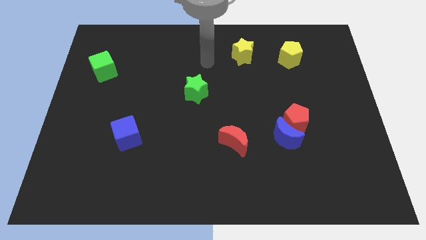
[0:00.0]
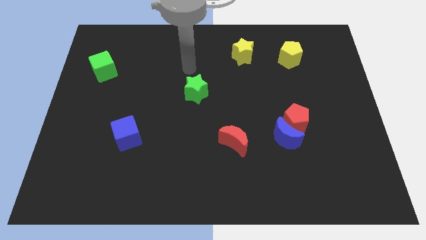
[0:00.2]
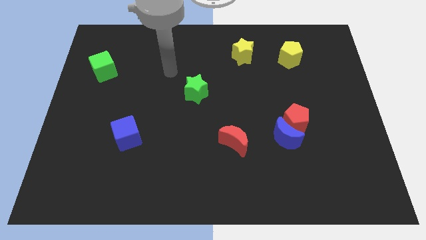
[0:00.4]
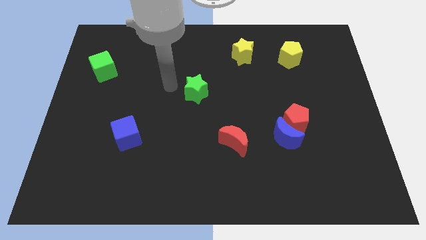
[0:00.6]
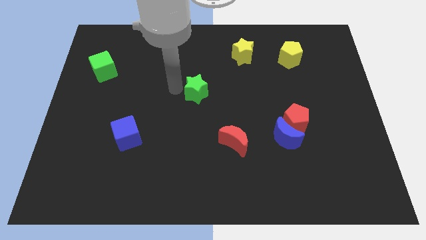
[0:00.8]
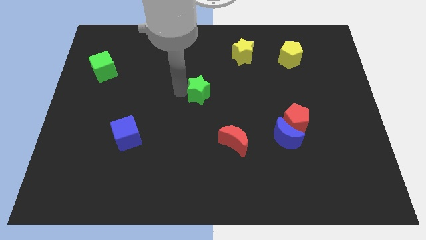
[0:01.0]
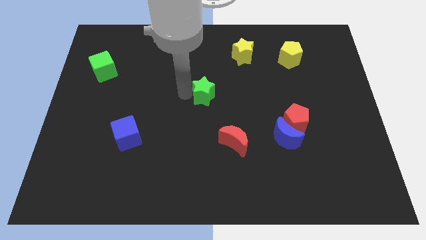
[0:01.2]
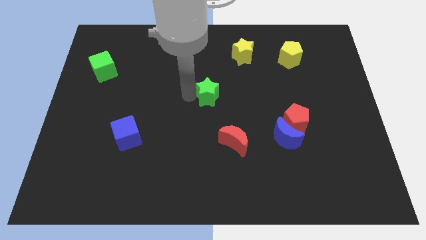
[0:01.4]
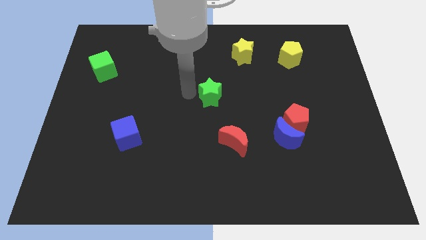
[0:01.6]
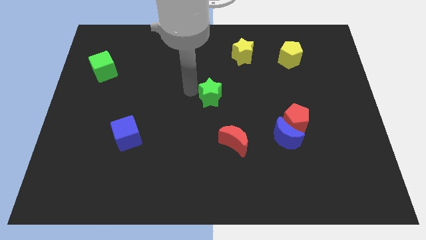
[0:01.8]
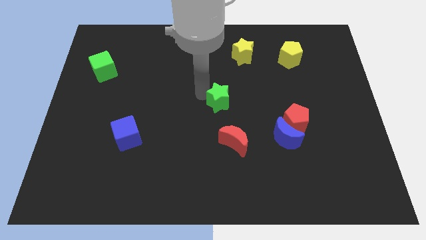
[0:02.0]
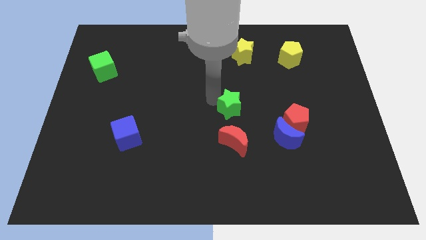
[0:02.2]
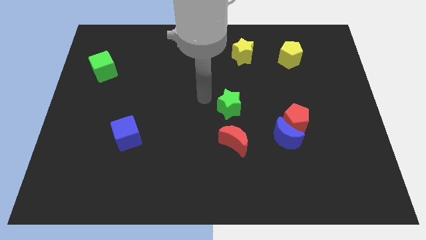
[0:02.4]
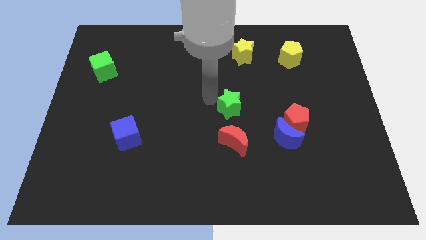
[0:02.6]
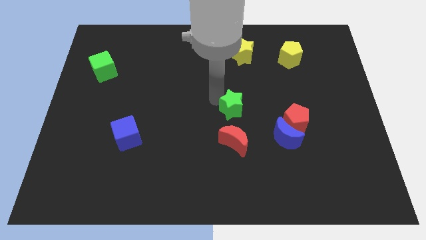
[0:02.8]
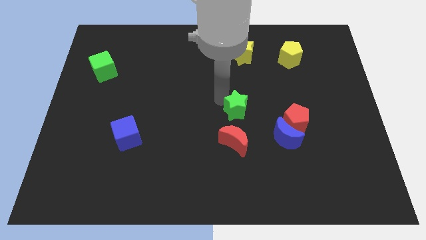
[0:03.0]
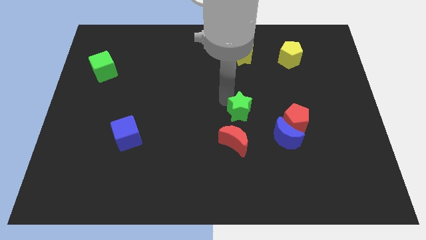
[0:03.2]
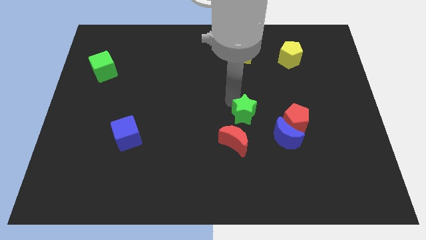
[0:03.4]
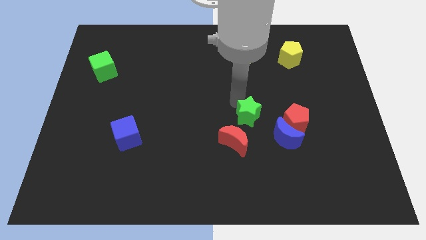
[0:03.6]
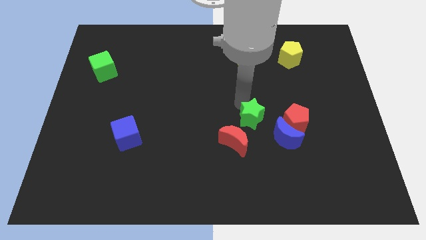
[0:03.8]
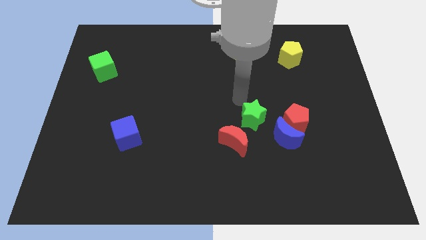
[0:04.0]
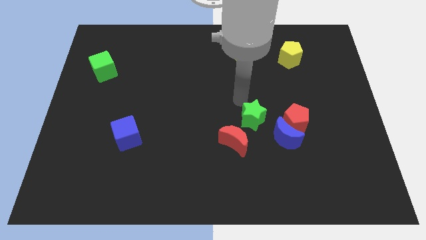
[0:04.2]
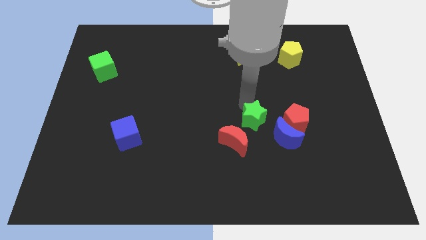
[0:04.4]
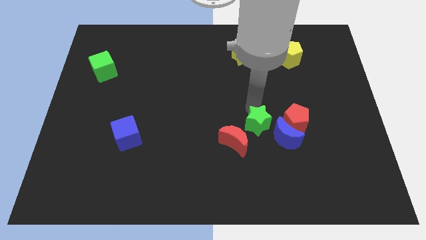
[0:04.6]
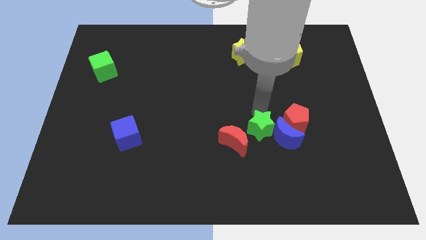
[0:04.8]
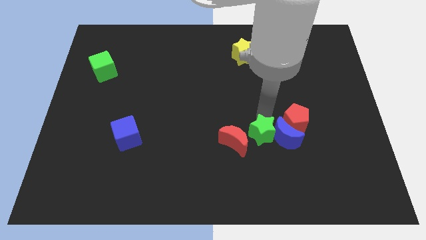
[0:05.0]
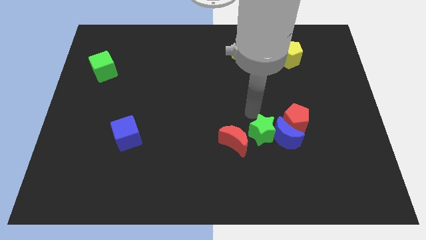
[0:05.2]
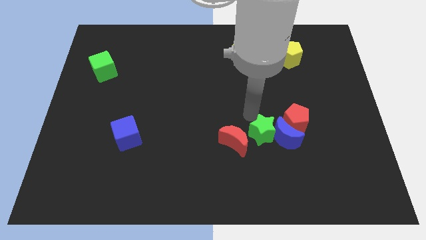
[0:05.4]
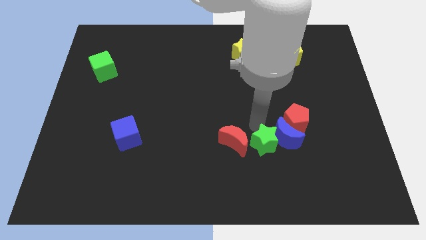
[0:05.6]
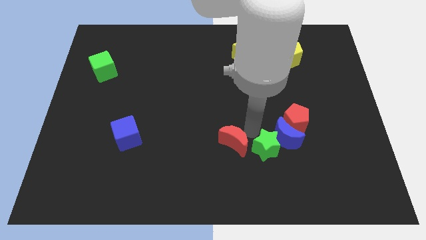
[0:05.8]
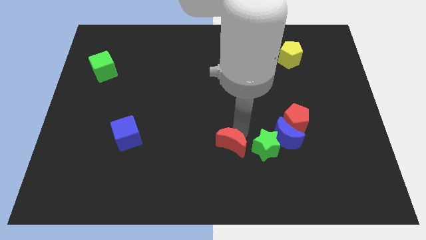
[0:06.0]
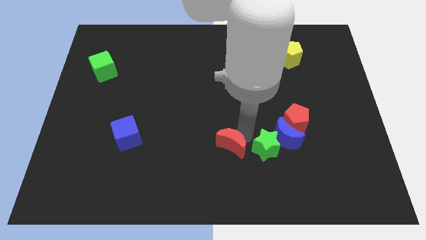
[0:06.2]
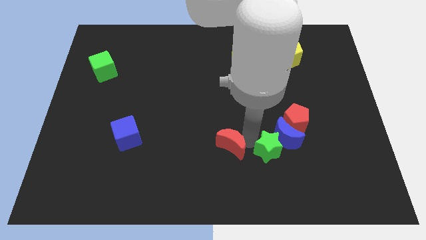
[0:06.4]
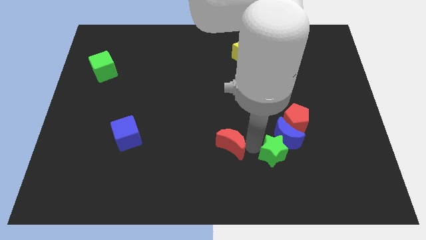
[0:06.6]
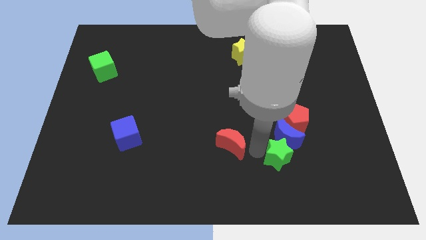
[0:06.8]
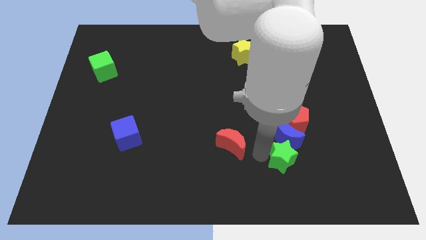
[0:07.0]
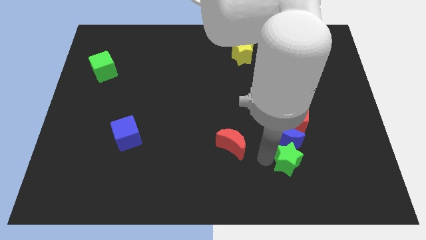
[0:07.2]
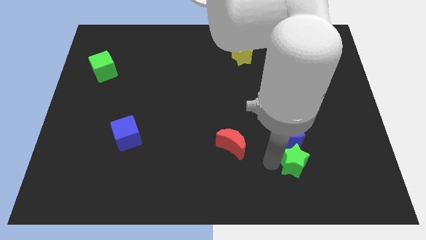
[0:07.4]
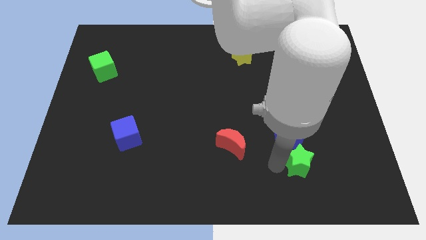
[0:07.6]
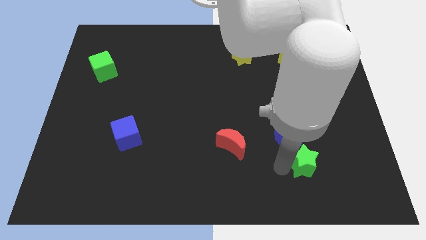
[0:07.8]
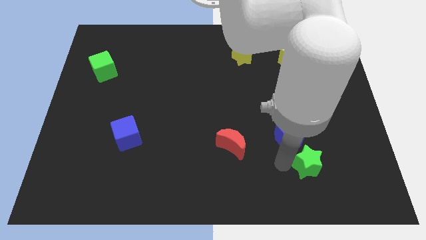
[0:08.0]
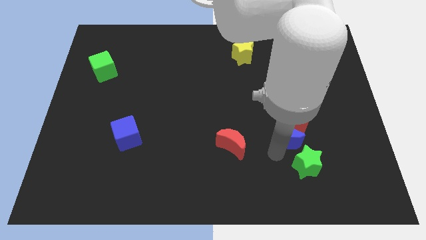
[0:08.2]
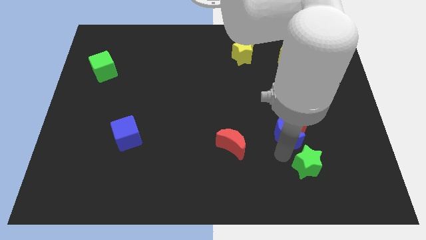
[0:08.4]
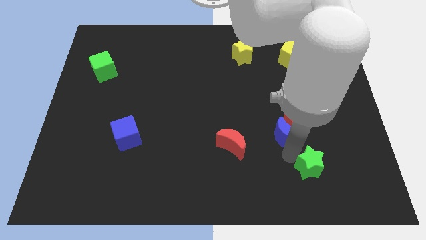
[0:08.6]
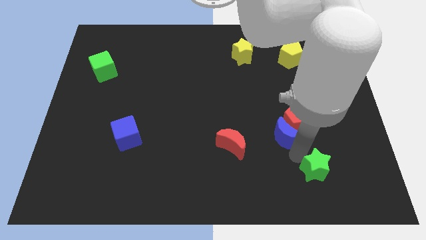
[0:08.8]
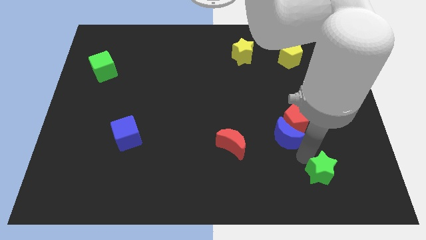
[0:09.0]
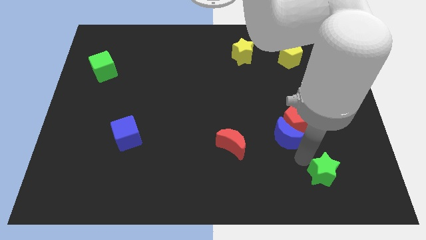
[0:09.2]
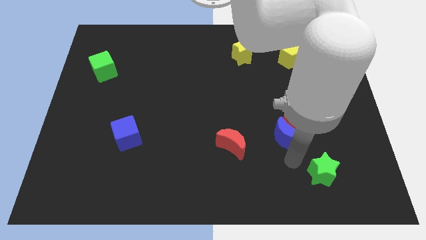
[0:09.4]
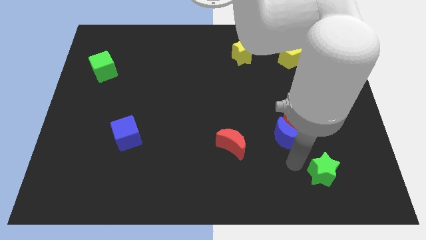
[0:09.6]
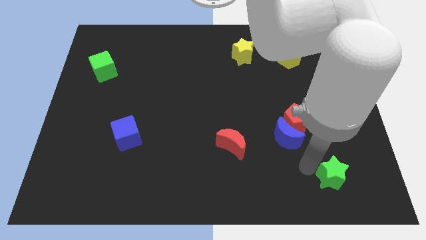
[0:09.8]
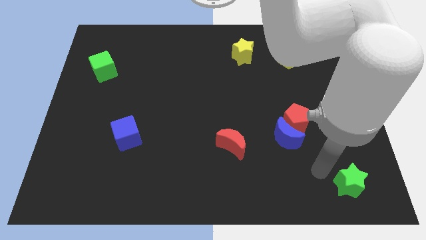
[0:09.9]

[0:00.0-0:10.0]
slide the green star to the bottom right of the board

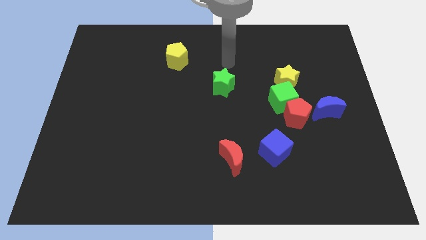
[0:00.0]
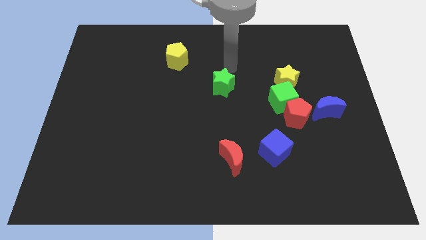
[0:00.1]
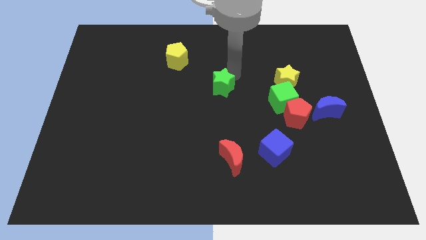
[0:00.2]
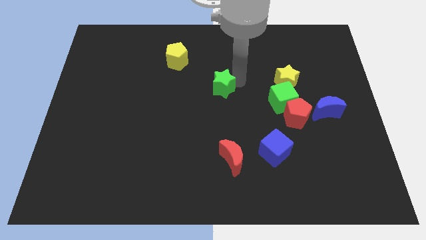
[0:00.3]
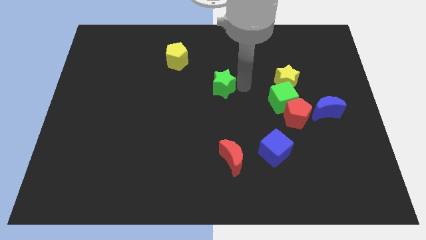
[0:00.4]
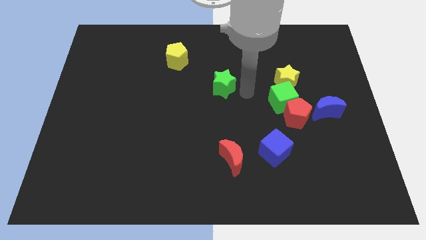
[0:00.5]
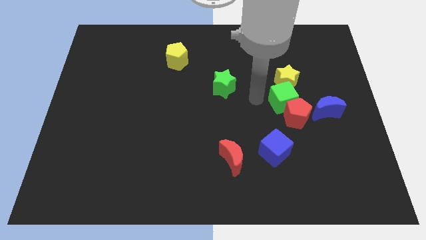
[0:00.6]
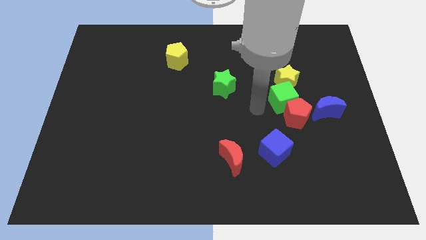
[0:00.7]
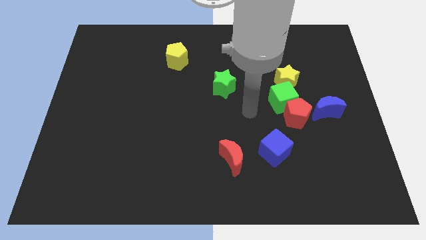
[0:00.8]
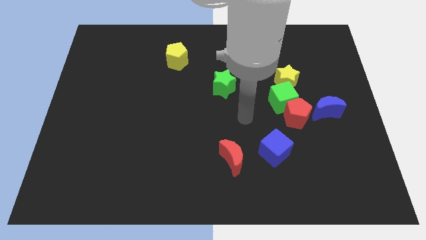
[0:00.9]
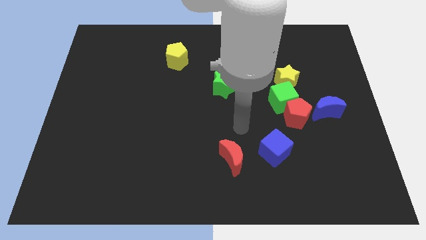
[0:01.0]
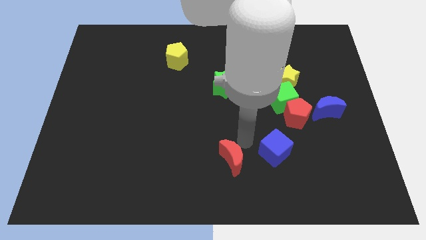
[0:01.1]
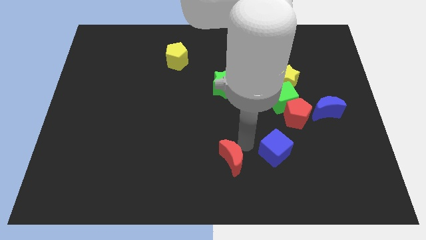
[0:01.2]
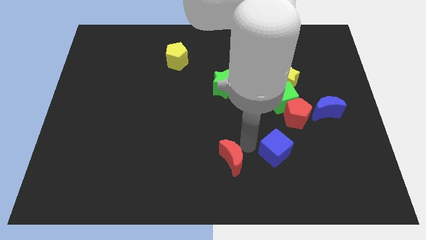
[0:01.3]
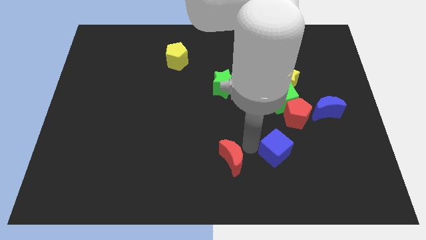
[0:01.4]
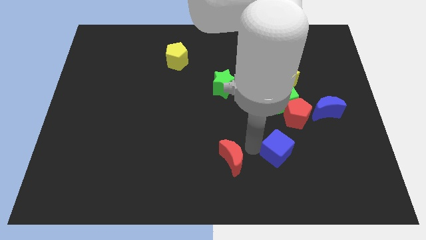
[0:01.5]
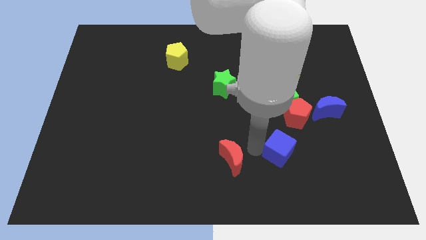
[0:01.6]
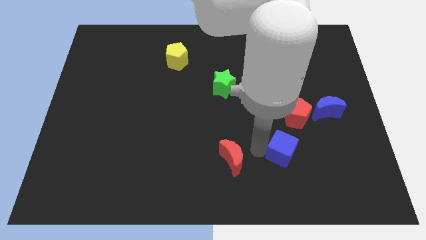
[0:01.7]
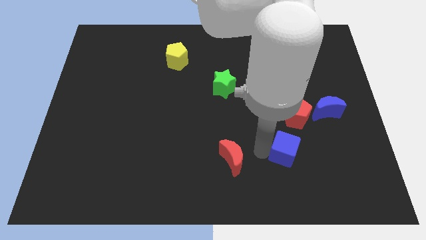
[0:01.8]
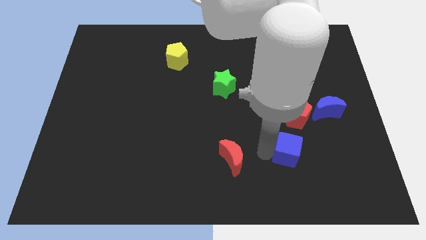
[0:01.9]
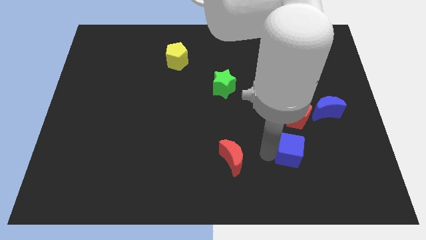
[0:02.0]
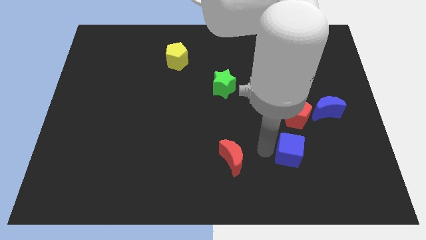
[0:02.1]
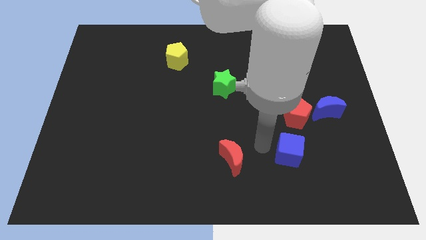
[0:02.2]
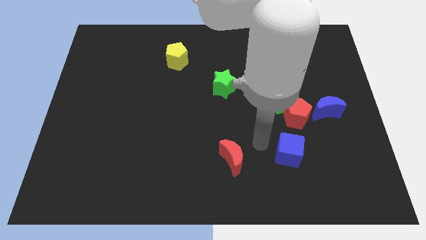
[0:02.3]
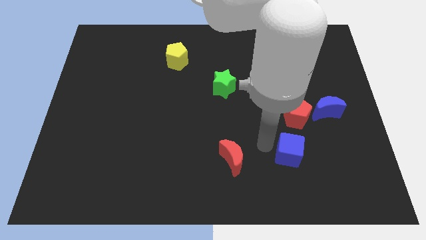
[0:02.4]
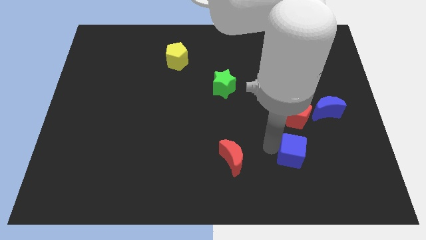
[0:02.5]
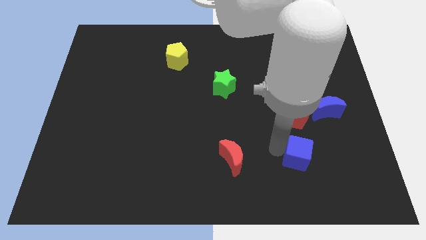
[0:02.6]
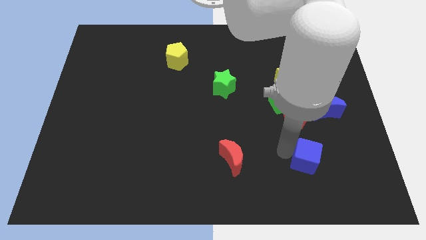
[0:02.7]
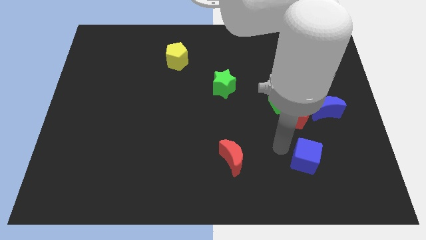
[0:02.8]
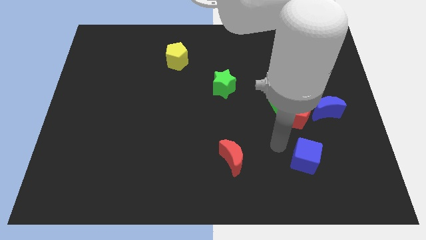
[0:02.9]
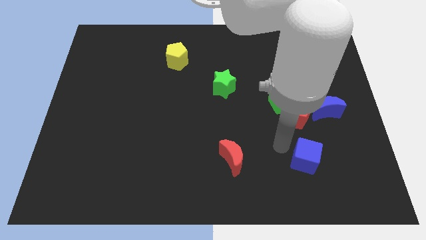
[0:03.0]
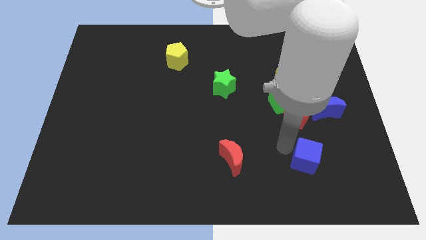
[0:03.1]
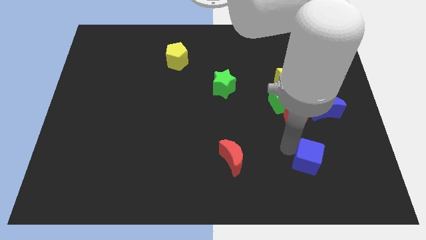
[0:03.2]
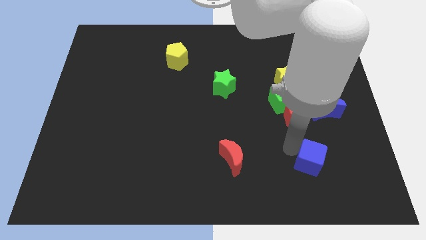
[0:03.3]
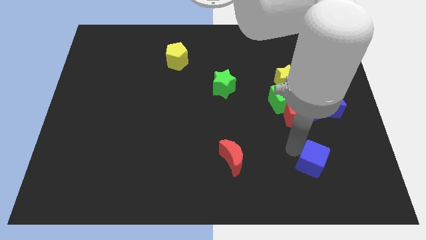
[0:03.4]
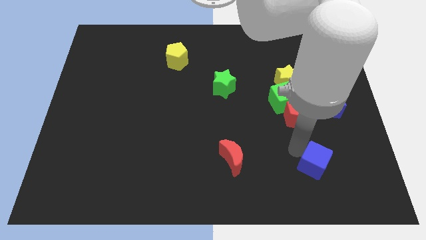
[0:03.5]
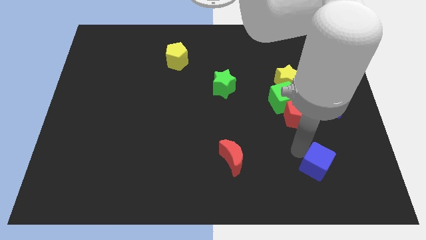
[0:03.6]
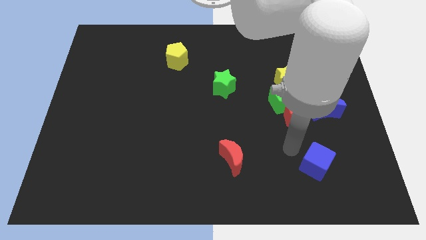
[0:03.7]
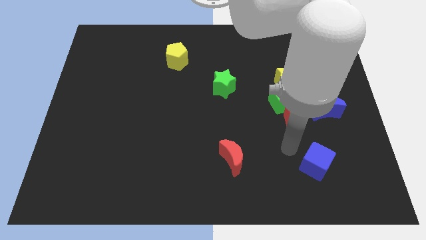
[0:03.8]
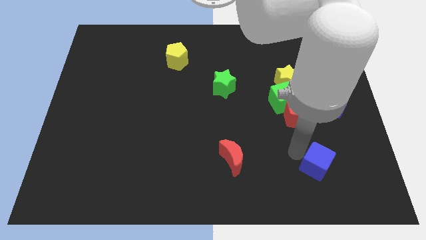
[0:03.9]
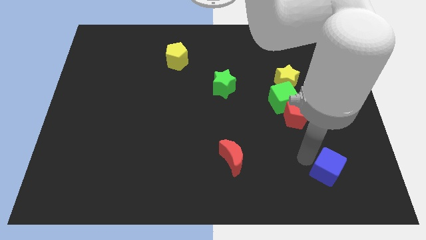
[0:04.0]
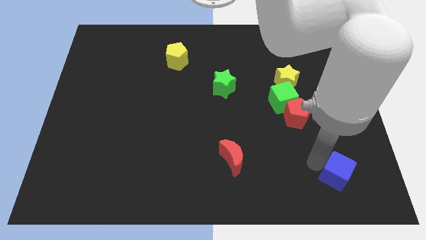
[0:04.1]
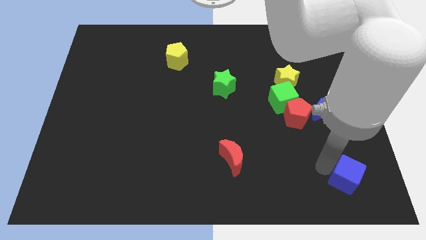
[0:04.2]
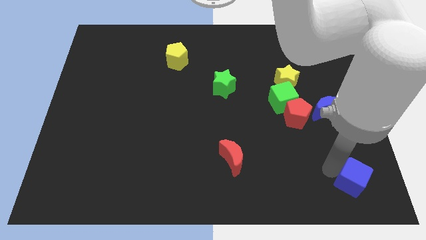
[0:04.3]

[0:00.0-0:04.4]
put the blue cube to the bottom right corner
